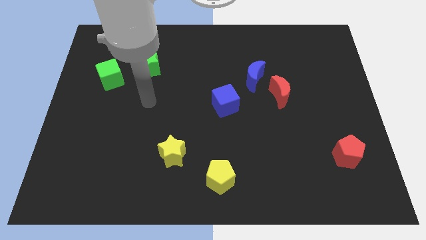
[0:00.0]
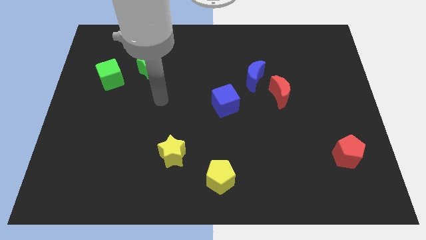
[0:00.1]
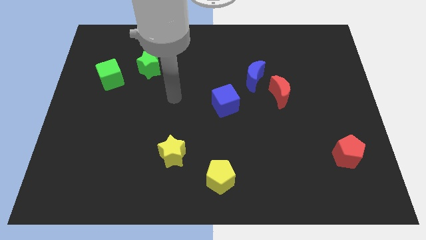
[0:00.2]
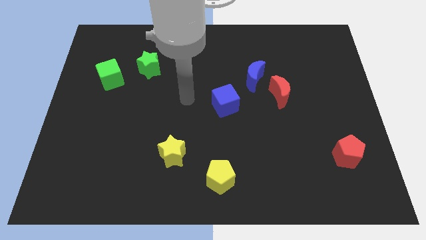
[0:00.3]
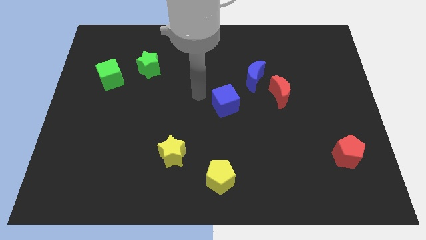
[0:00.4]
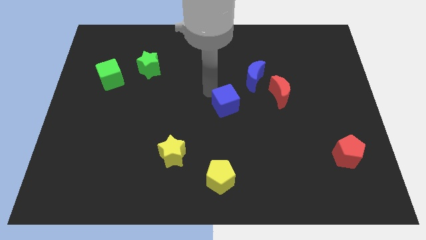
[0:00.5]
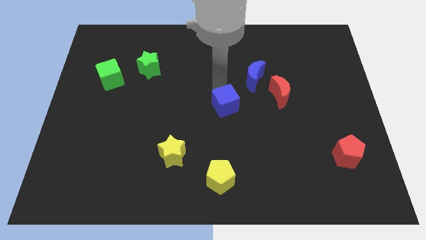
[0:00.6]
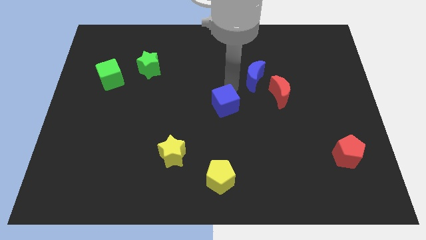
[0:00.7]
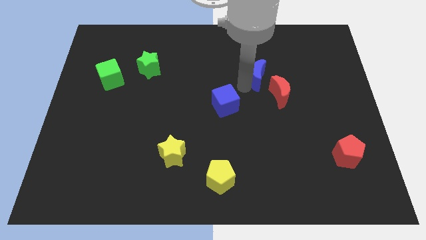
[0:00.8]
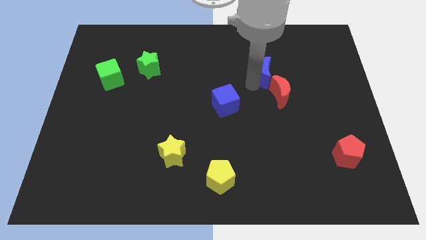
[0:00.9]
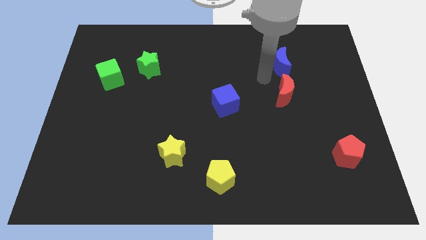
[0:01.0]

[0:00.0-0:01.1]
pull the red moon apart from the blue moon

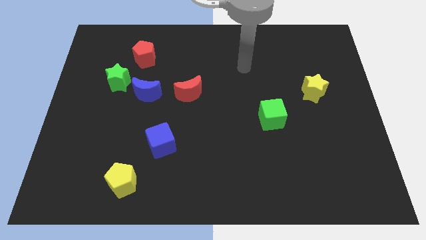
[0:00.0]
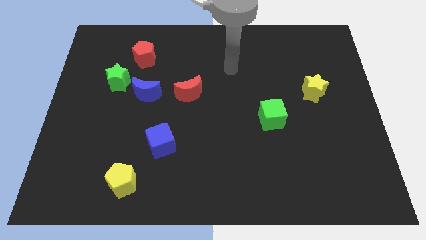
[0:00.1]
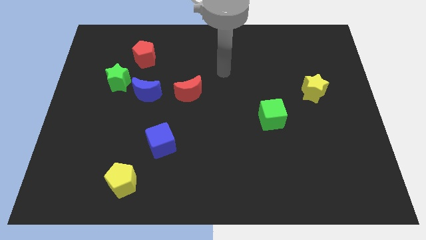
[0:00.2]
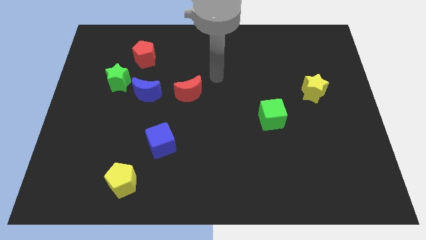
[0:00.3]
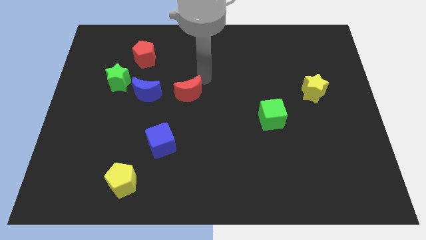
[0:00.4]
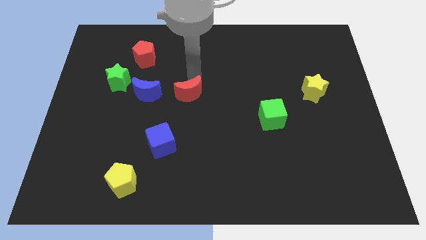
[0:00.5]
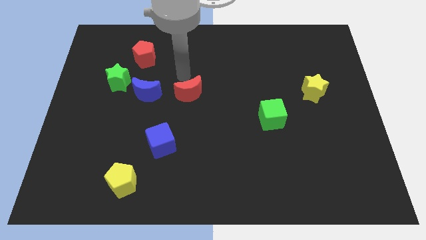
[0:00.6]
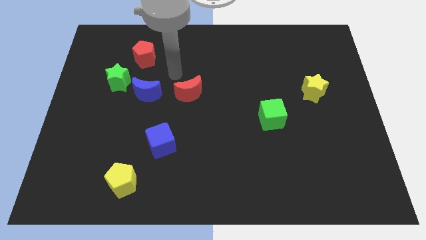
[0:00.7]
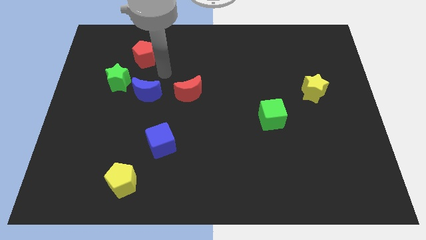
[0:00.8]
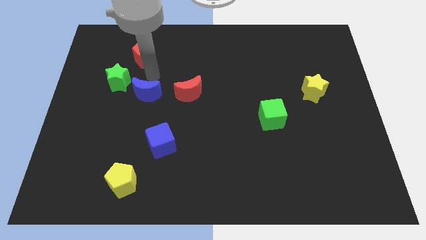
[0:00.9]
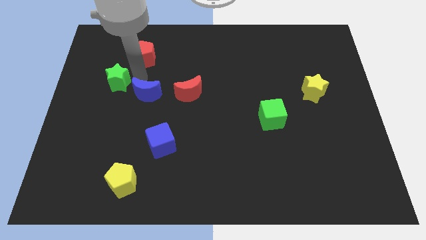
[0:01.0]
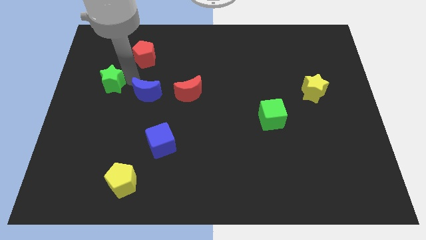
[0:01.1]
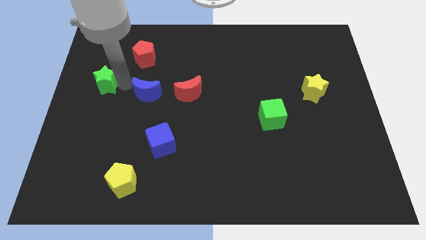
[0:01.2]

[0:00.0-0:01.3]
move the blue moon away from the green star

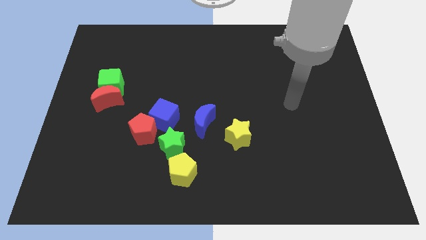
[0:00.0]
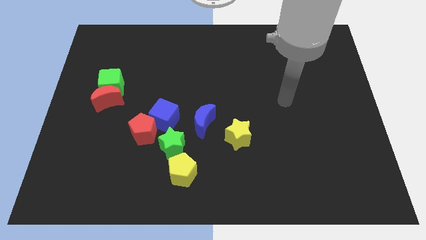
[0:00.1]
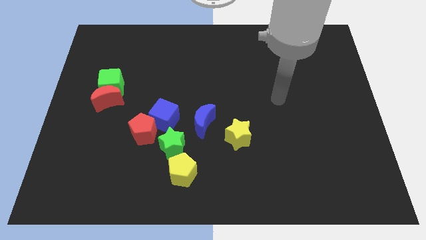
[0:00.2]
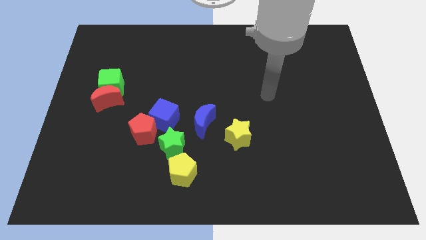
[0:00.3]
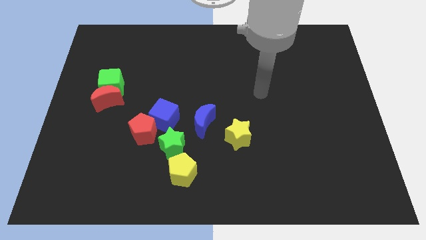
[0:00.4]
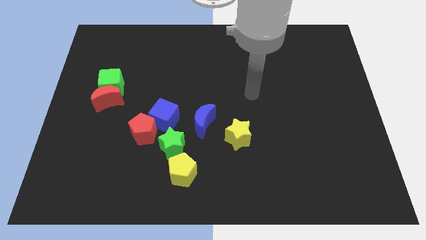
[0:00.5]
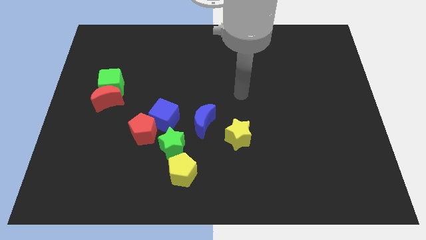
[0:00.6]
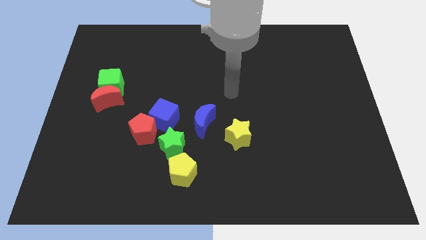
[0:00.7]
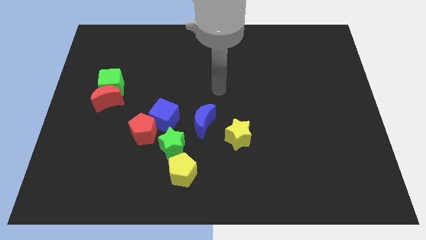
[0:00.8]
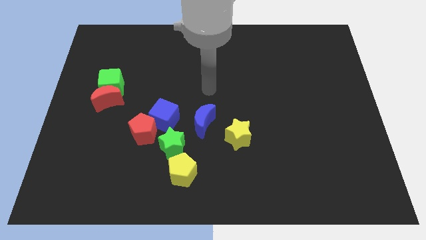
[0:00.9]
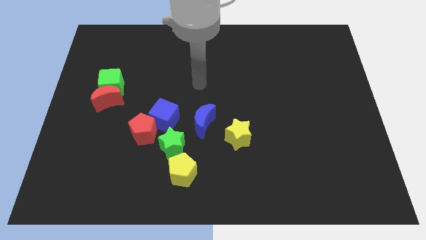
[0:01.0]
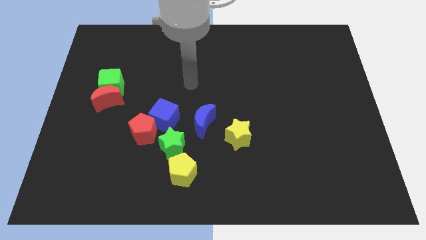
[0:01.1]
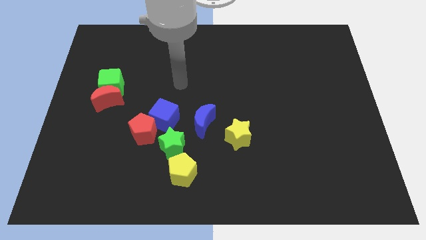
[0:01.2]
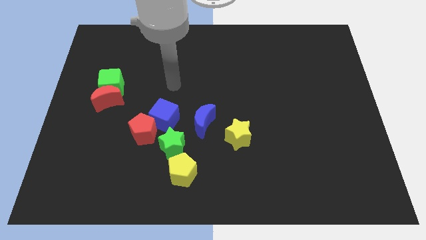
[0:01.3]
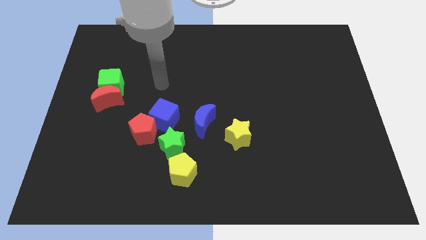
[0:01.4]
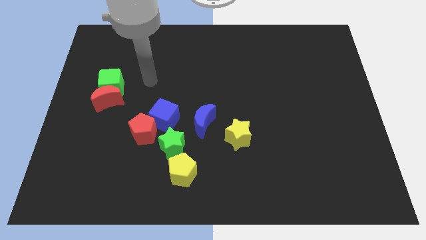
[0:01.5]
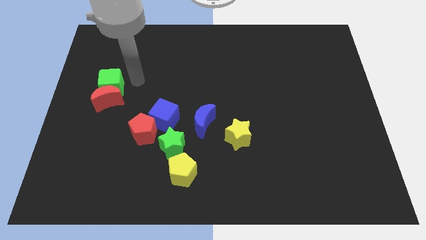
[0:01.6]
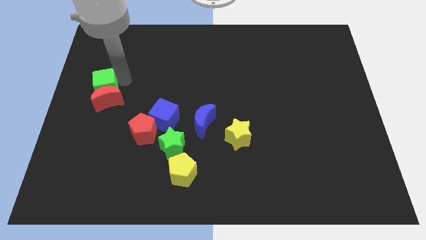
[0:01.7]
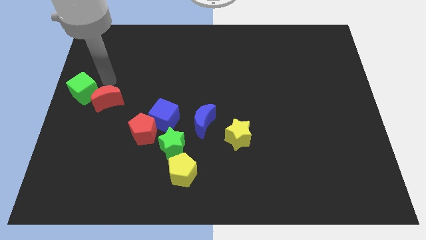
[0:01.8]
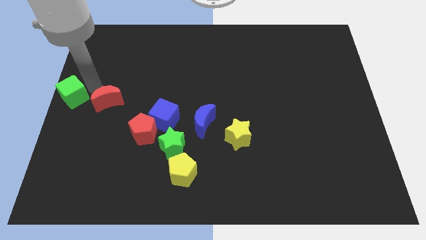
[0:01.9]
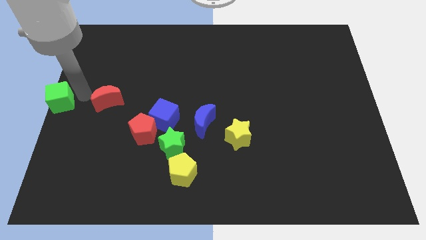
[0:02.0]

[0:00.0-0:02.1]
separate the red moon from the green cube

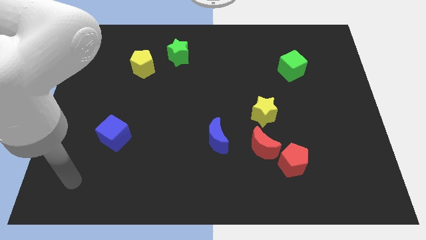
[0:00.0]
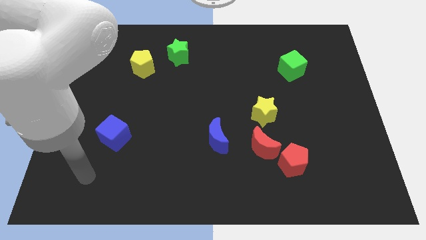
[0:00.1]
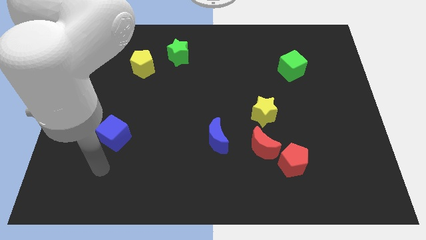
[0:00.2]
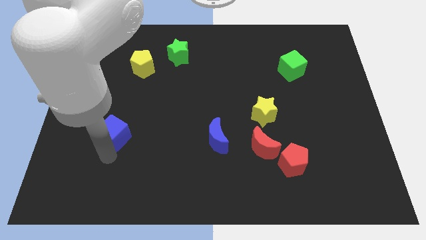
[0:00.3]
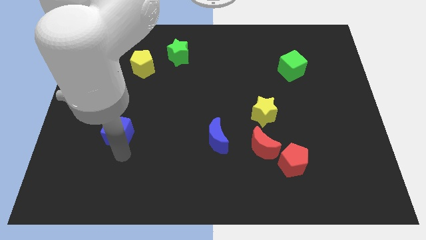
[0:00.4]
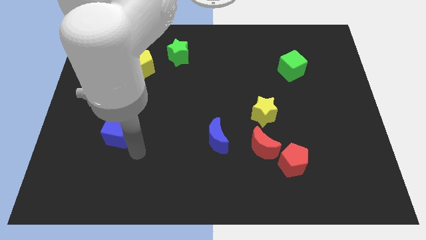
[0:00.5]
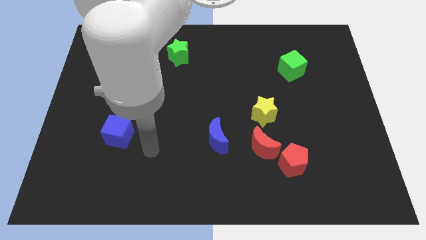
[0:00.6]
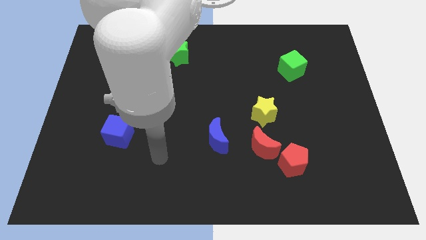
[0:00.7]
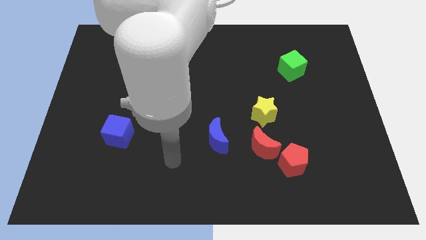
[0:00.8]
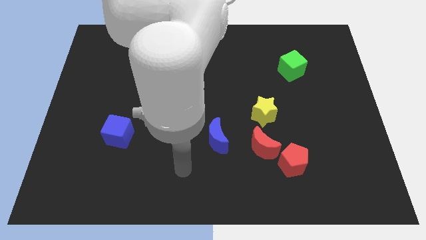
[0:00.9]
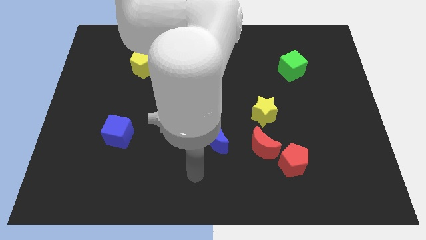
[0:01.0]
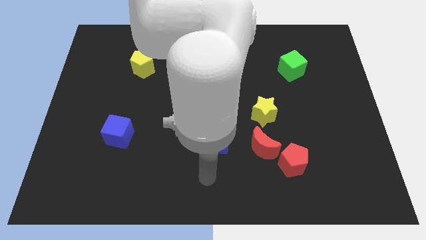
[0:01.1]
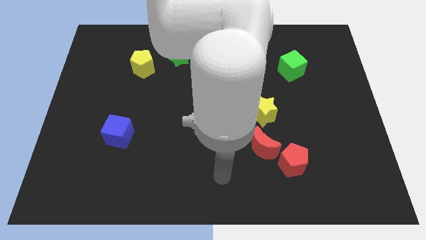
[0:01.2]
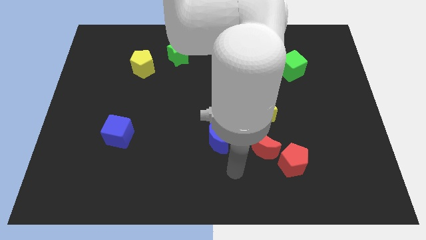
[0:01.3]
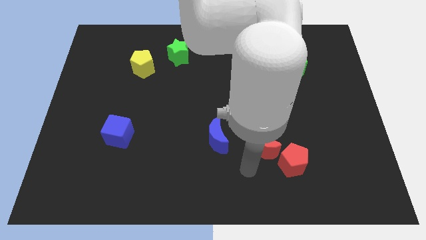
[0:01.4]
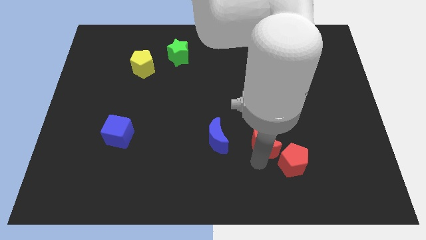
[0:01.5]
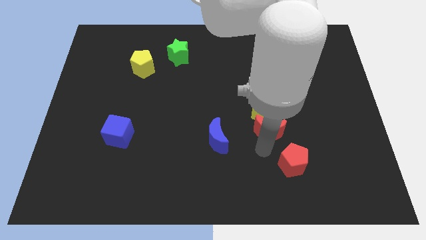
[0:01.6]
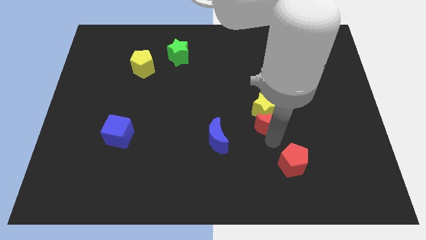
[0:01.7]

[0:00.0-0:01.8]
move the red pentagon away from the red moon

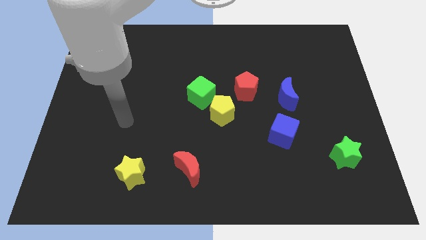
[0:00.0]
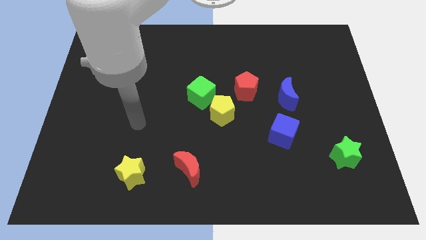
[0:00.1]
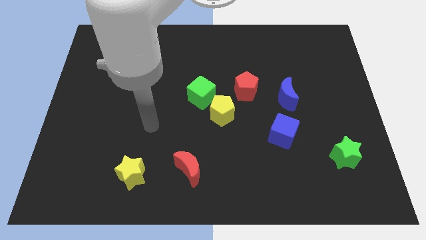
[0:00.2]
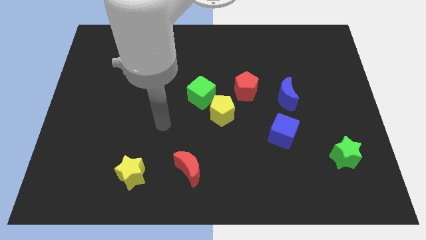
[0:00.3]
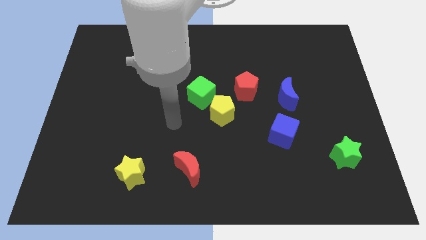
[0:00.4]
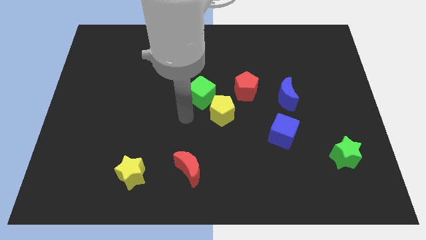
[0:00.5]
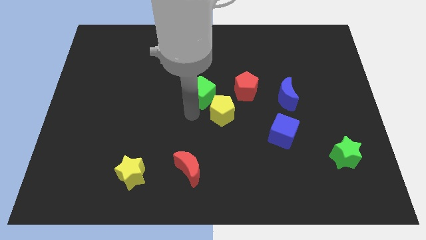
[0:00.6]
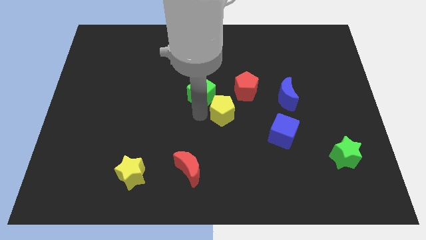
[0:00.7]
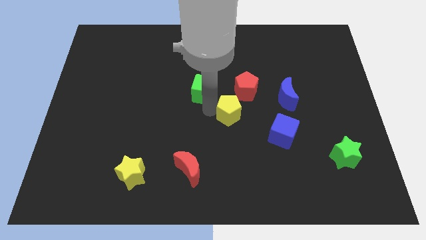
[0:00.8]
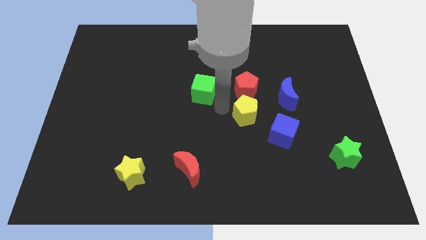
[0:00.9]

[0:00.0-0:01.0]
move the green cube away from the yellow pentagon

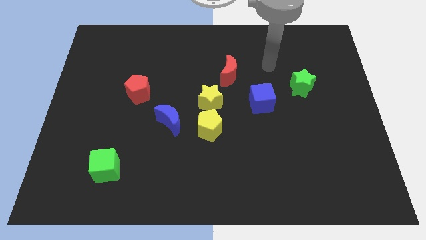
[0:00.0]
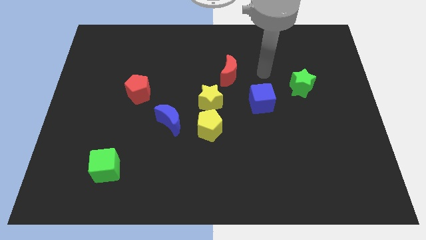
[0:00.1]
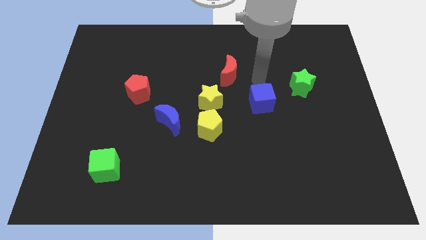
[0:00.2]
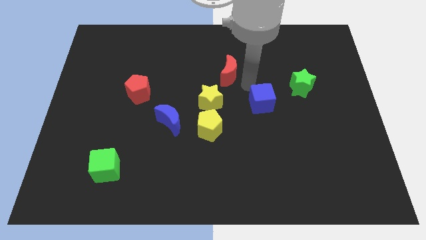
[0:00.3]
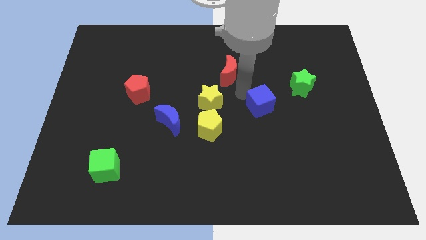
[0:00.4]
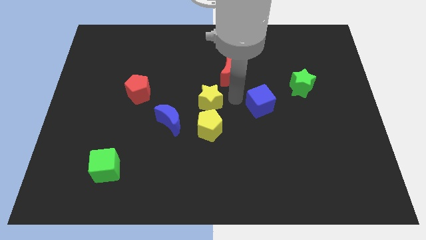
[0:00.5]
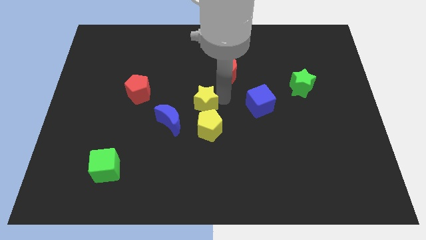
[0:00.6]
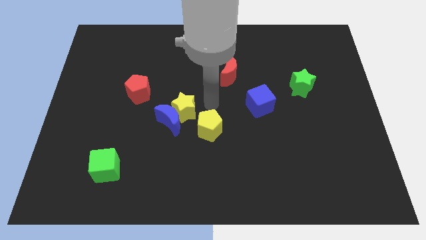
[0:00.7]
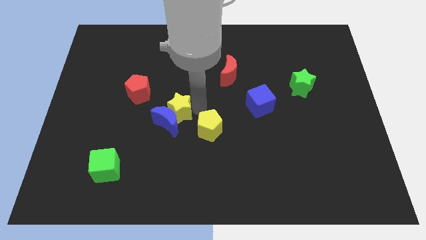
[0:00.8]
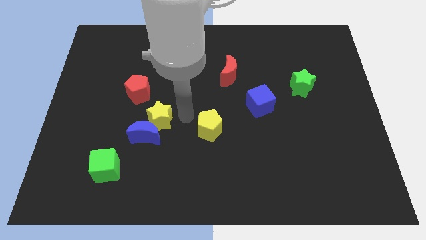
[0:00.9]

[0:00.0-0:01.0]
pull the yellow pentagon apart from the yellow star and blue moon

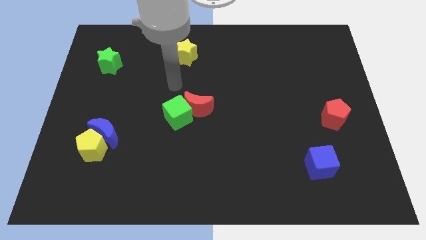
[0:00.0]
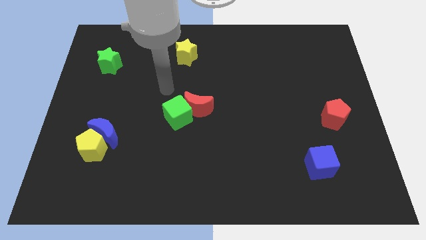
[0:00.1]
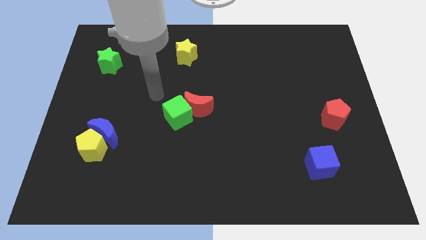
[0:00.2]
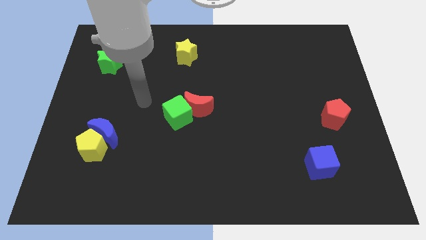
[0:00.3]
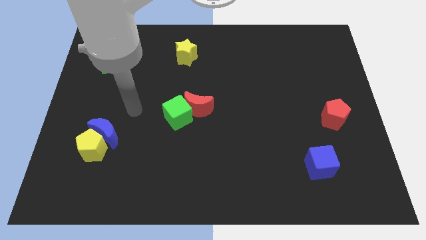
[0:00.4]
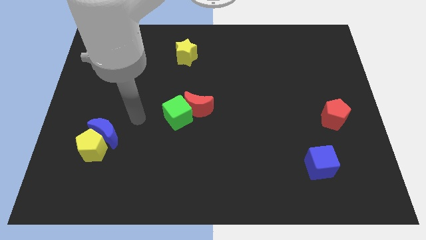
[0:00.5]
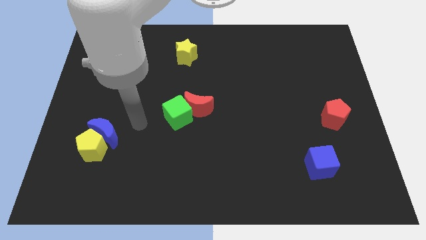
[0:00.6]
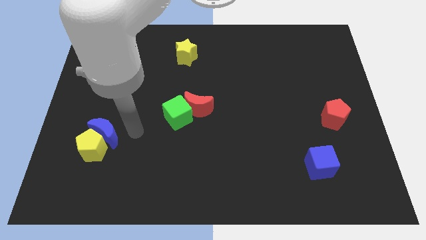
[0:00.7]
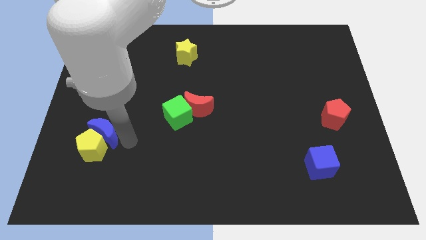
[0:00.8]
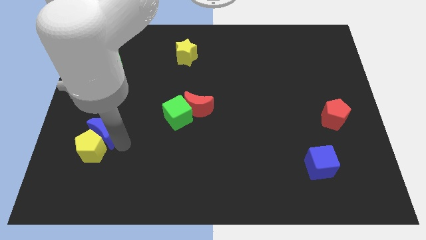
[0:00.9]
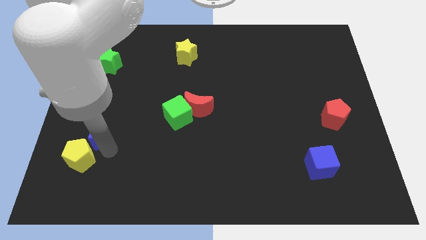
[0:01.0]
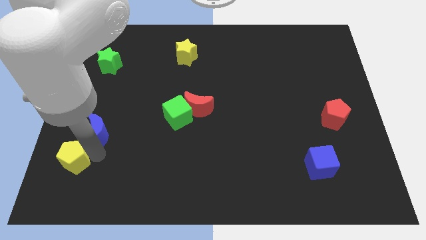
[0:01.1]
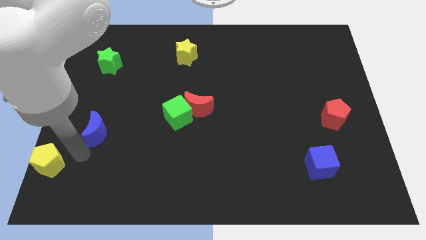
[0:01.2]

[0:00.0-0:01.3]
move the blue moon away from the yellow pentagon
